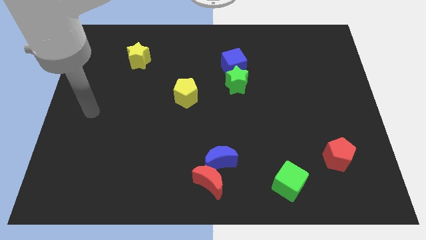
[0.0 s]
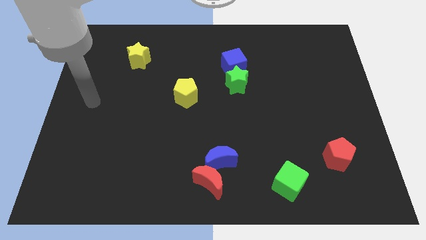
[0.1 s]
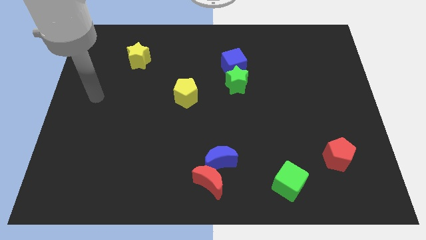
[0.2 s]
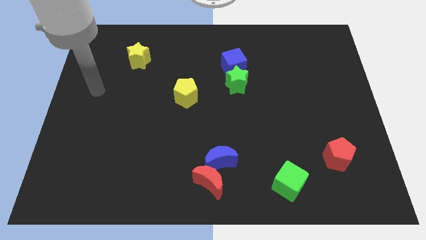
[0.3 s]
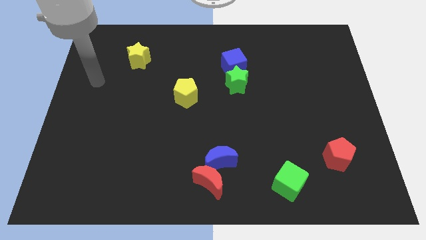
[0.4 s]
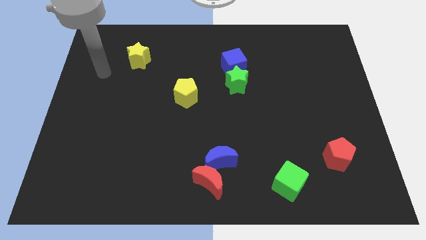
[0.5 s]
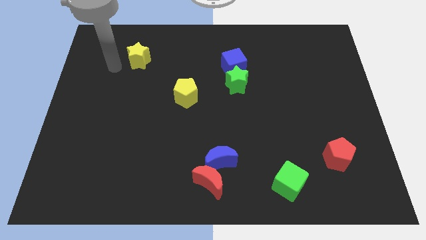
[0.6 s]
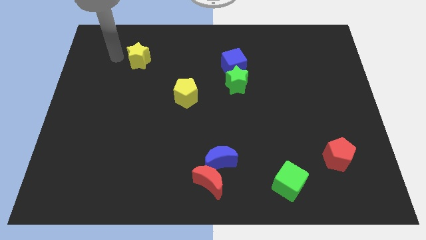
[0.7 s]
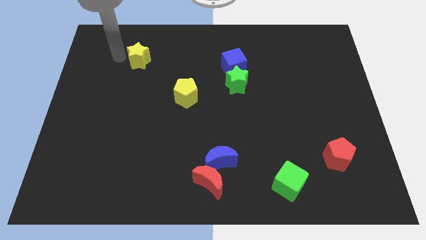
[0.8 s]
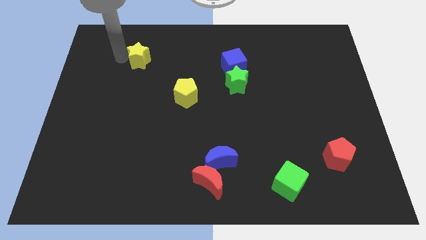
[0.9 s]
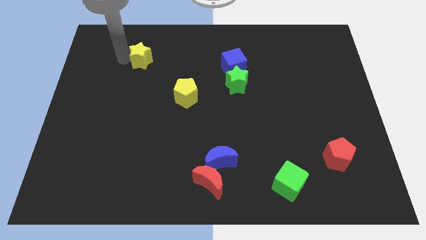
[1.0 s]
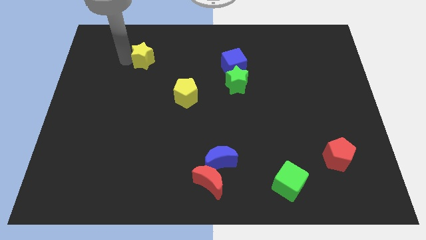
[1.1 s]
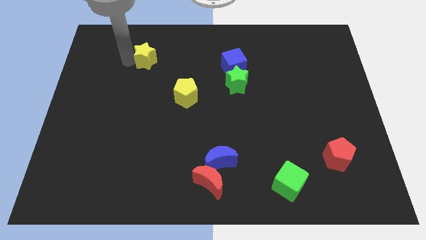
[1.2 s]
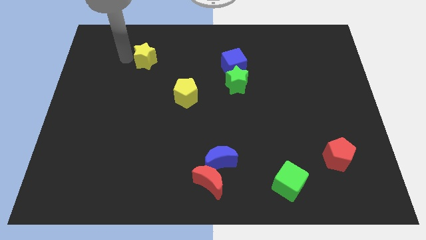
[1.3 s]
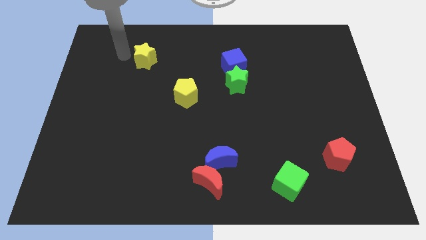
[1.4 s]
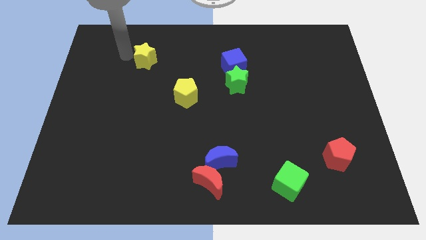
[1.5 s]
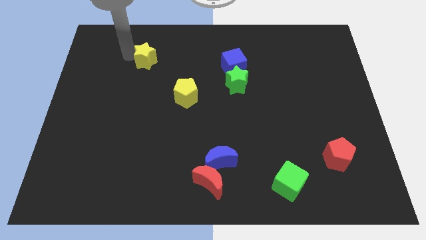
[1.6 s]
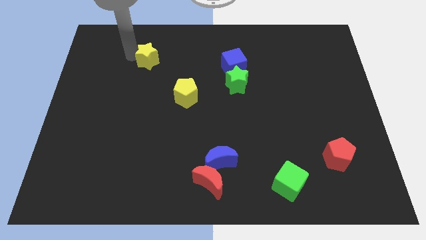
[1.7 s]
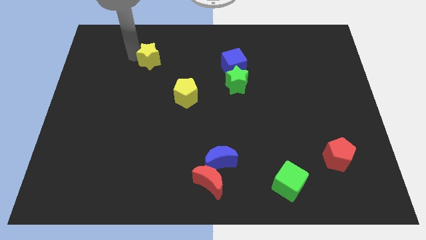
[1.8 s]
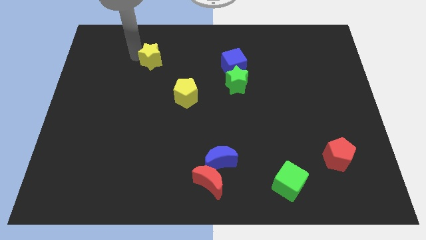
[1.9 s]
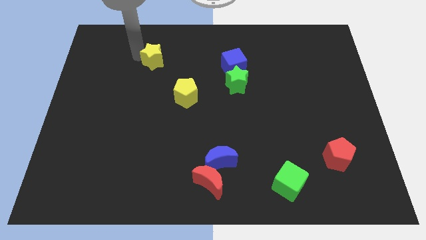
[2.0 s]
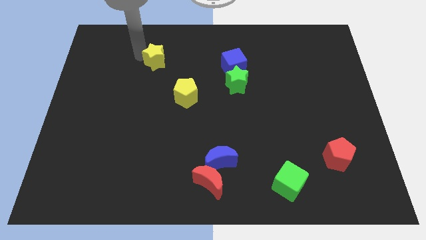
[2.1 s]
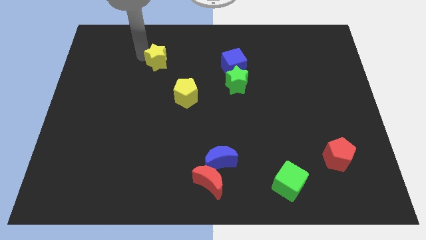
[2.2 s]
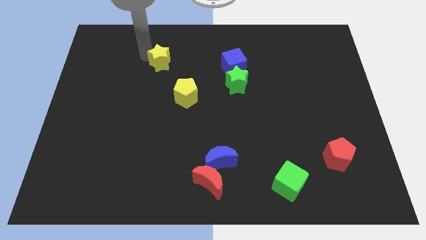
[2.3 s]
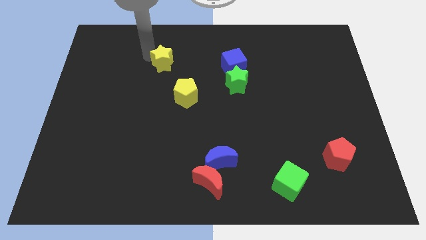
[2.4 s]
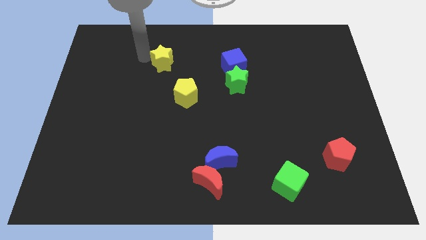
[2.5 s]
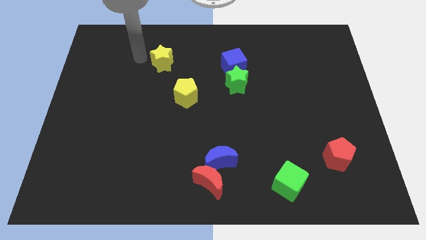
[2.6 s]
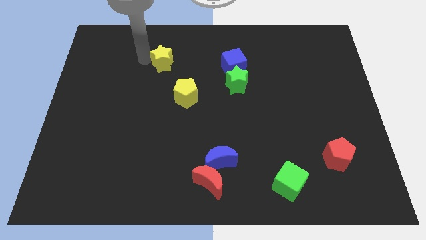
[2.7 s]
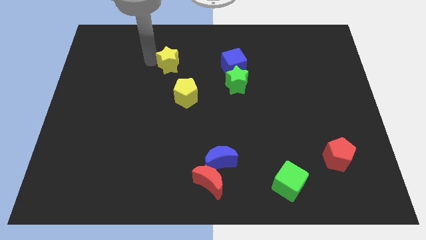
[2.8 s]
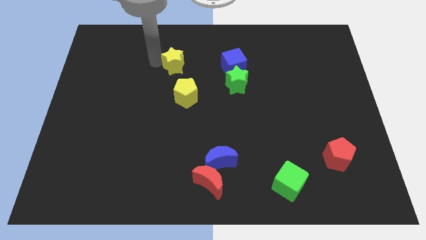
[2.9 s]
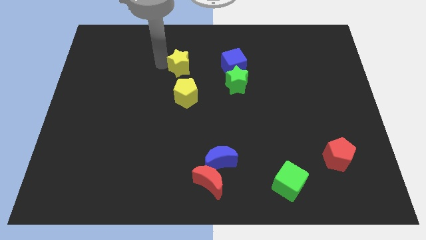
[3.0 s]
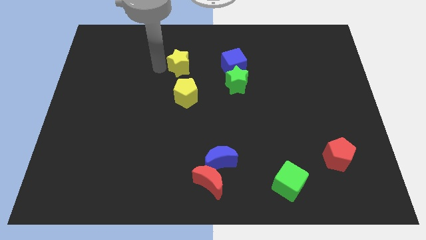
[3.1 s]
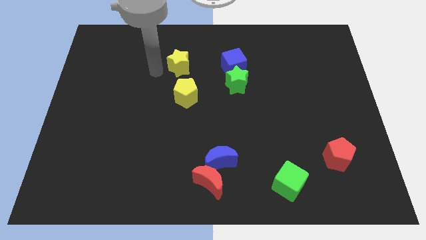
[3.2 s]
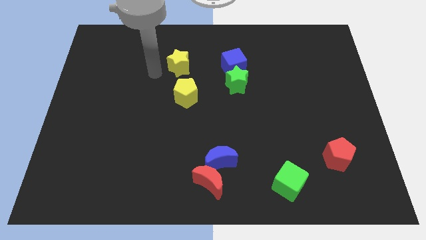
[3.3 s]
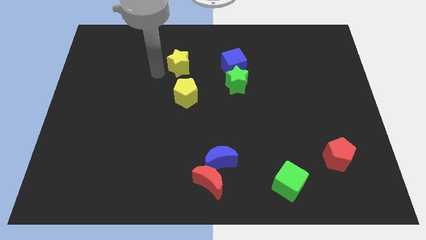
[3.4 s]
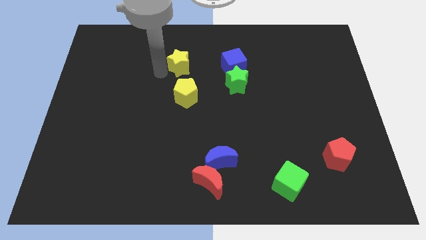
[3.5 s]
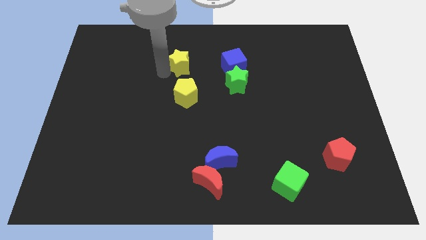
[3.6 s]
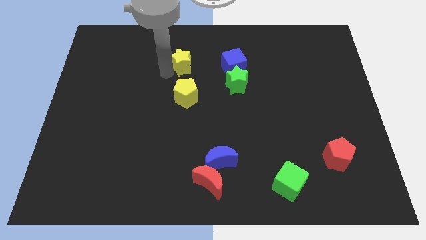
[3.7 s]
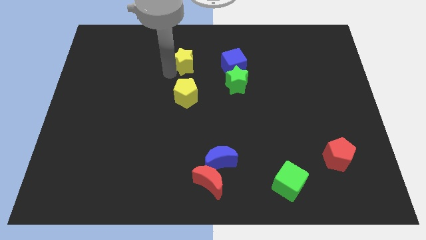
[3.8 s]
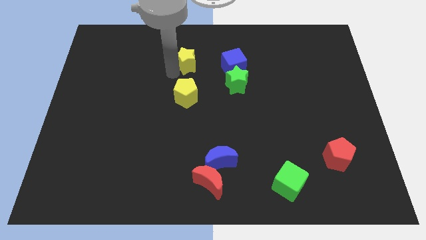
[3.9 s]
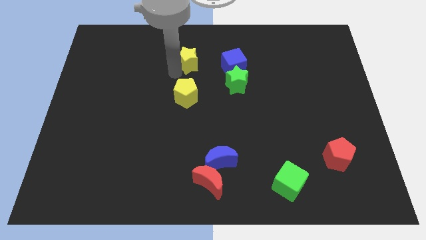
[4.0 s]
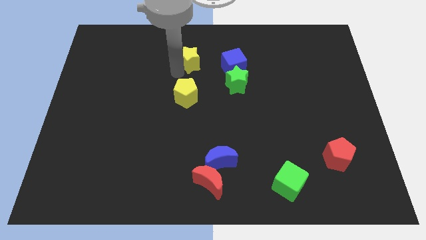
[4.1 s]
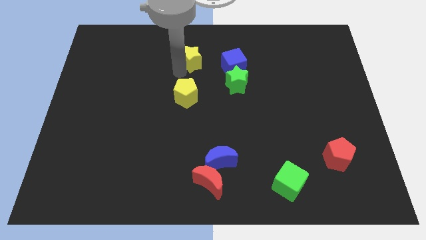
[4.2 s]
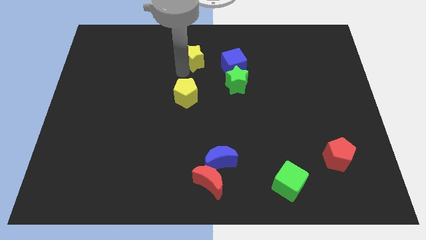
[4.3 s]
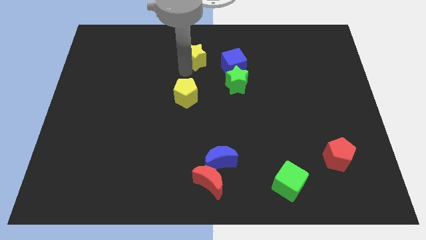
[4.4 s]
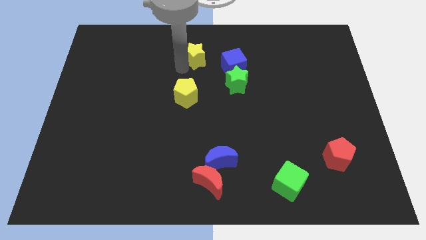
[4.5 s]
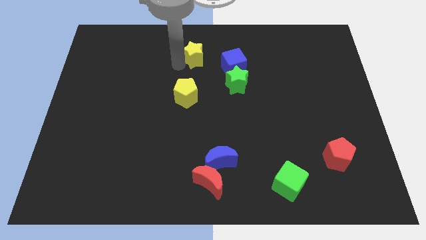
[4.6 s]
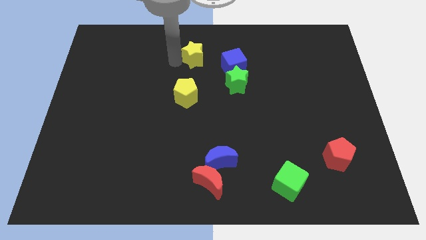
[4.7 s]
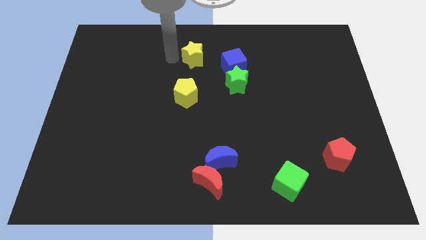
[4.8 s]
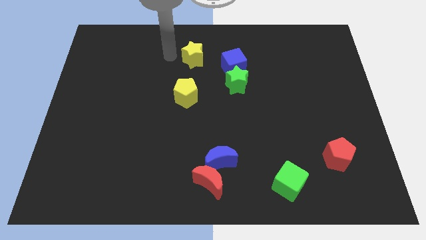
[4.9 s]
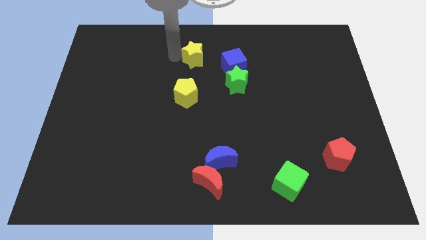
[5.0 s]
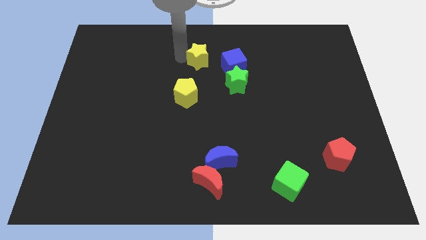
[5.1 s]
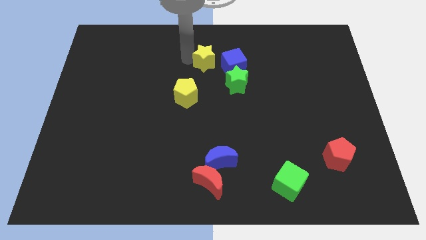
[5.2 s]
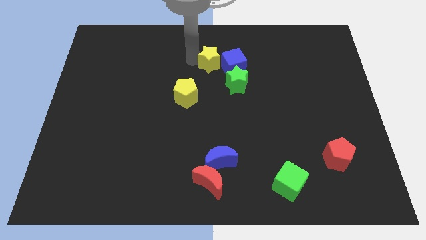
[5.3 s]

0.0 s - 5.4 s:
slide the yellow star close to the blue cube

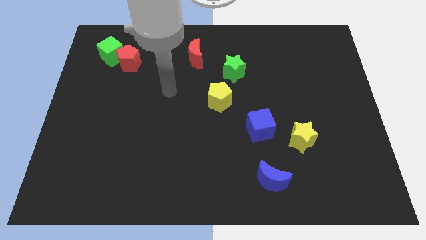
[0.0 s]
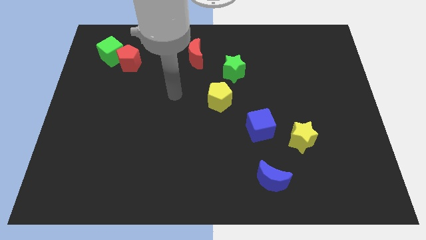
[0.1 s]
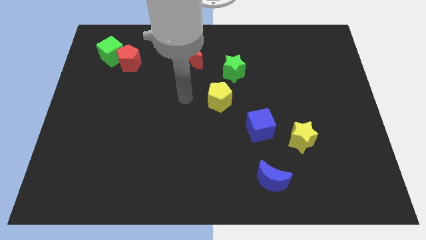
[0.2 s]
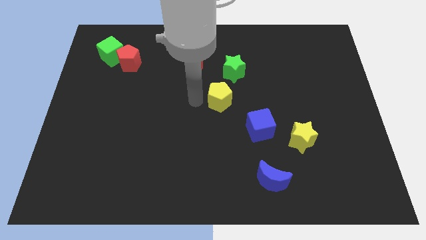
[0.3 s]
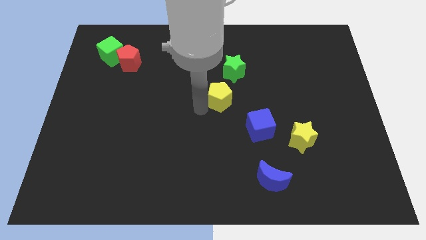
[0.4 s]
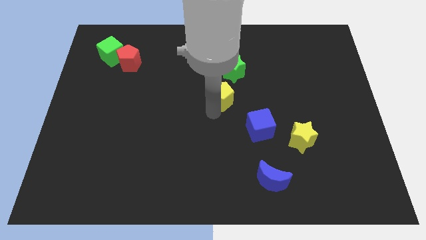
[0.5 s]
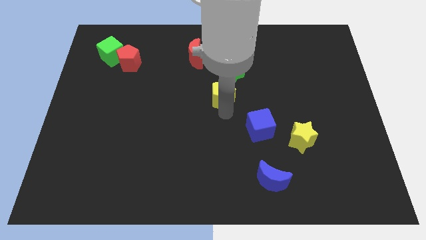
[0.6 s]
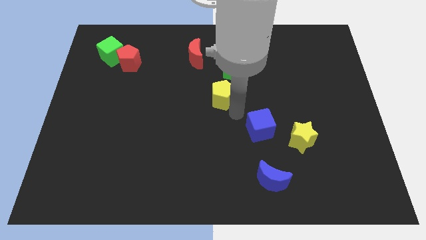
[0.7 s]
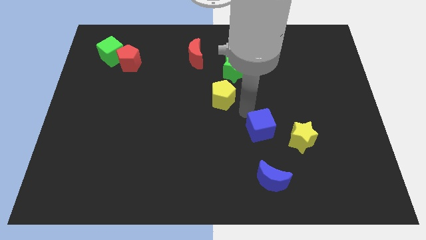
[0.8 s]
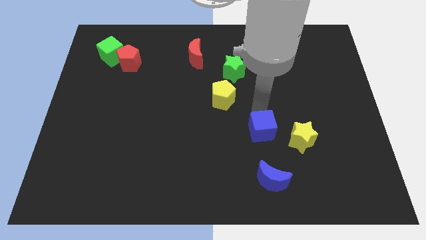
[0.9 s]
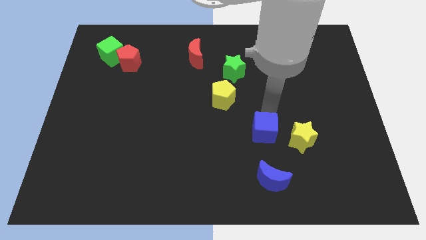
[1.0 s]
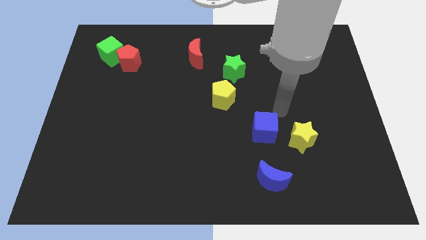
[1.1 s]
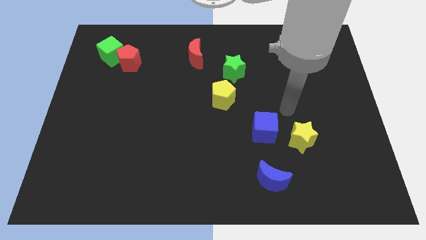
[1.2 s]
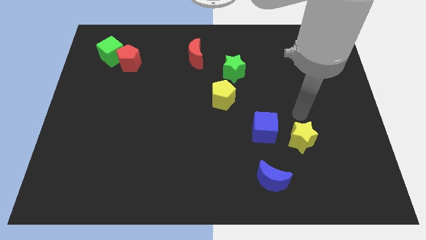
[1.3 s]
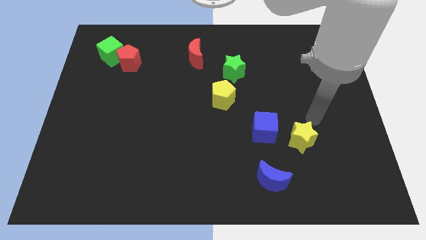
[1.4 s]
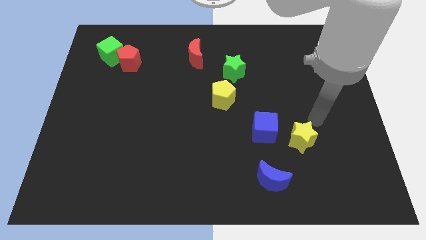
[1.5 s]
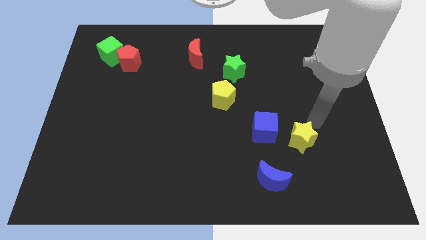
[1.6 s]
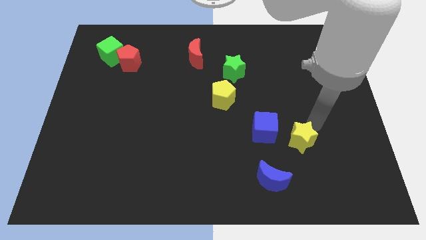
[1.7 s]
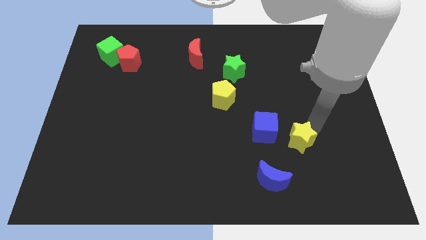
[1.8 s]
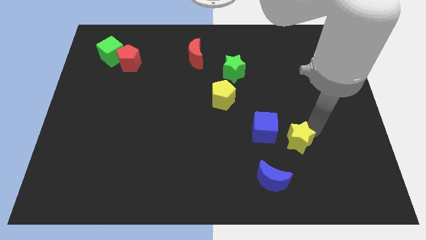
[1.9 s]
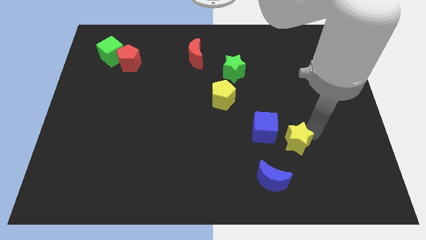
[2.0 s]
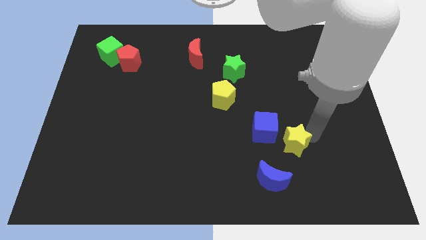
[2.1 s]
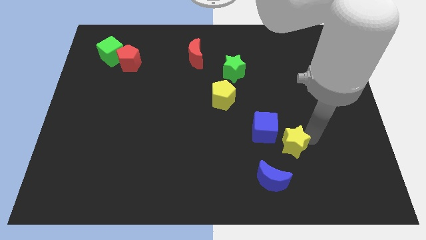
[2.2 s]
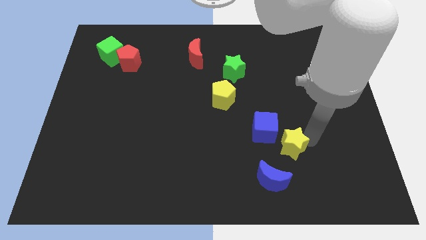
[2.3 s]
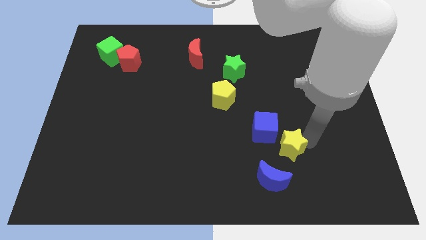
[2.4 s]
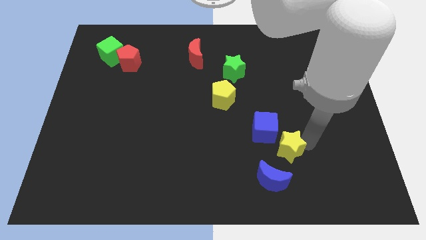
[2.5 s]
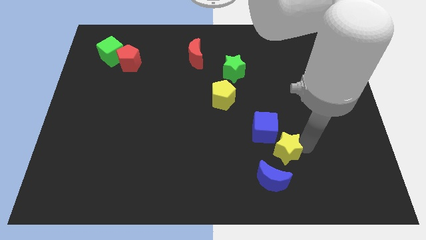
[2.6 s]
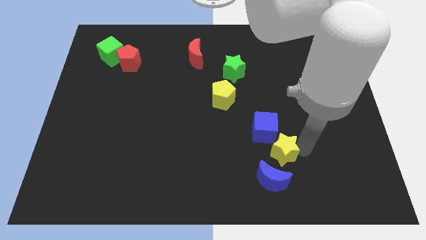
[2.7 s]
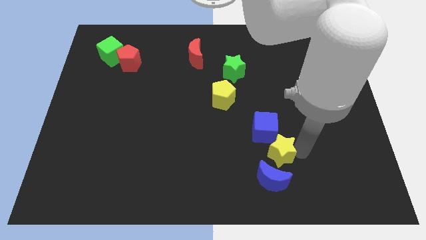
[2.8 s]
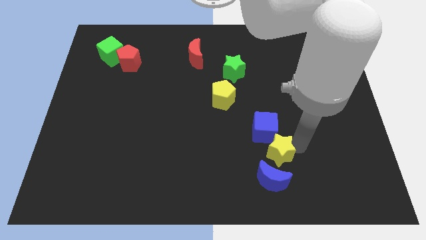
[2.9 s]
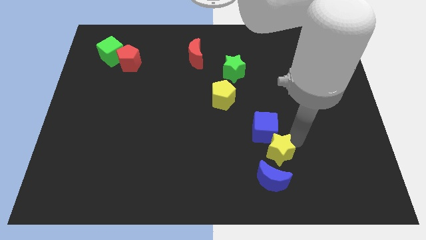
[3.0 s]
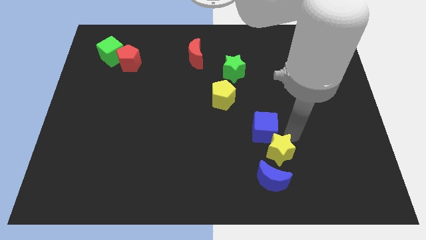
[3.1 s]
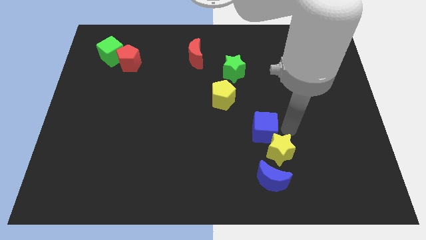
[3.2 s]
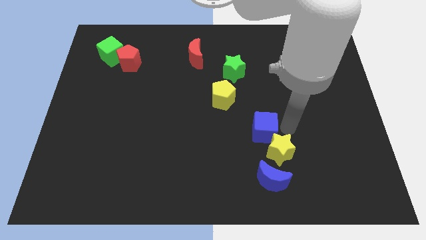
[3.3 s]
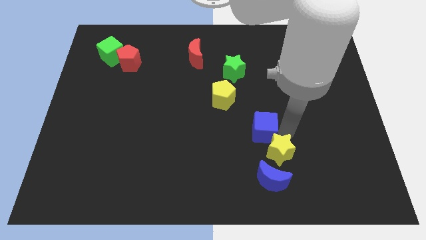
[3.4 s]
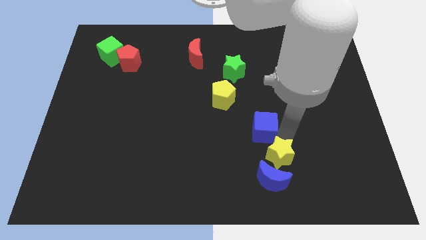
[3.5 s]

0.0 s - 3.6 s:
slide the yellow star close to the blue moon
